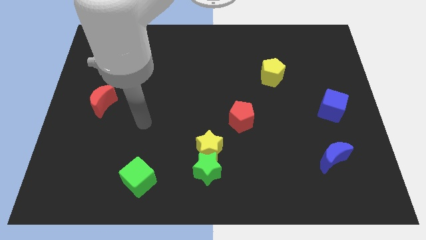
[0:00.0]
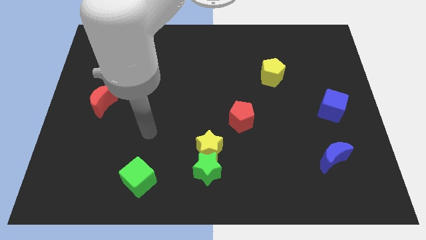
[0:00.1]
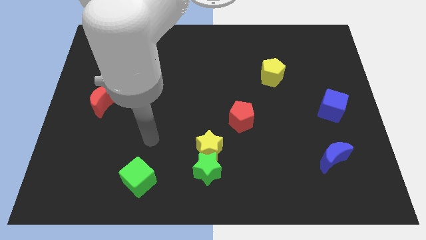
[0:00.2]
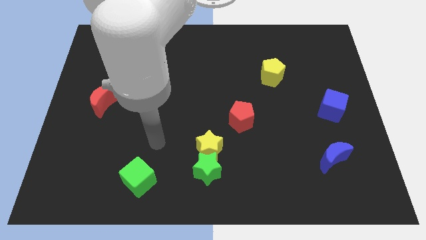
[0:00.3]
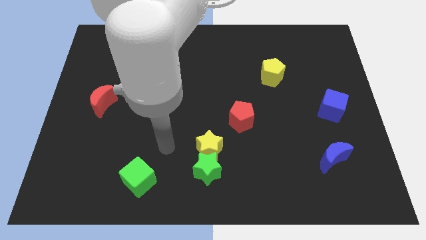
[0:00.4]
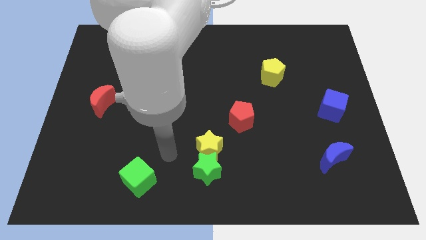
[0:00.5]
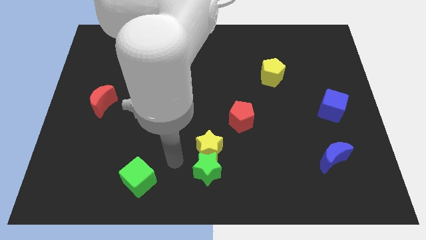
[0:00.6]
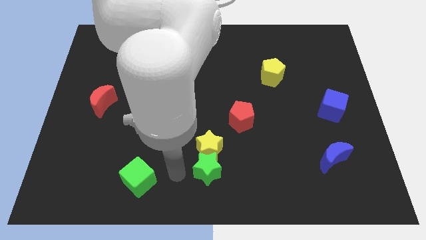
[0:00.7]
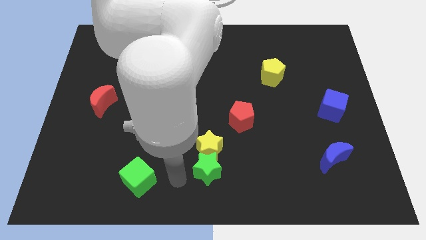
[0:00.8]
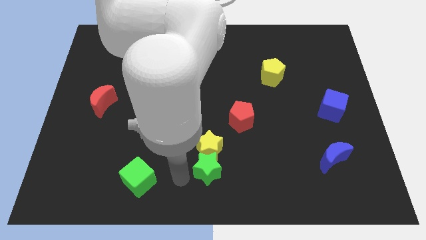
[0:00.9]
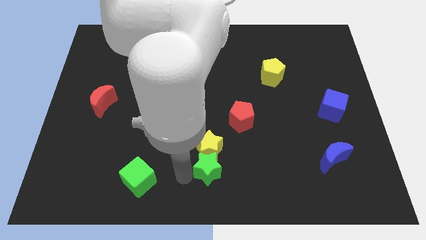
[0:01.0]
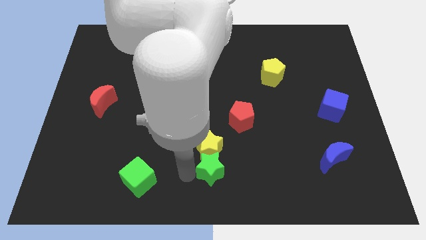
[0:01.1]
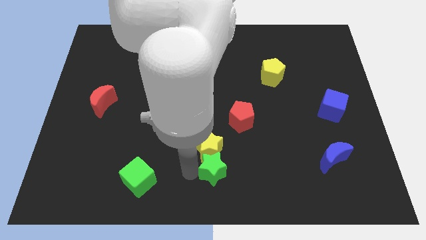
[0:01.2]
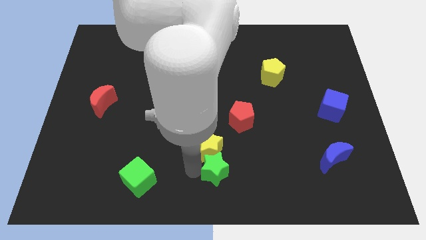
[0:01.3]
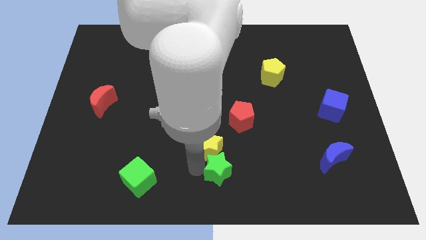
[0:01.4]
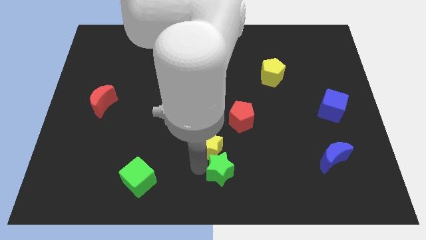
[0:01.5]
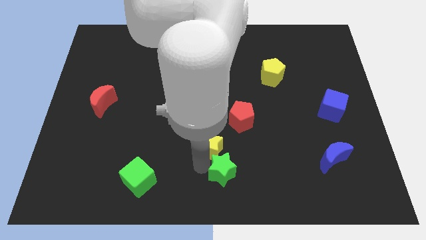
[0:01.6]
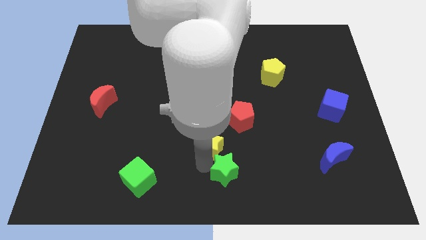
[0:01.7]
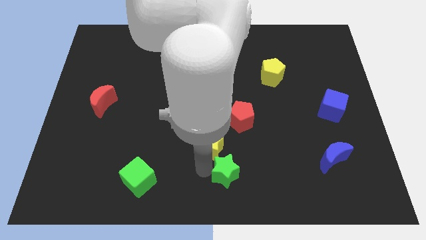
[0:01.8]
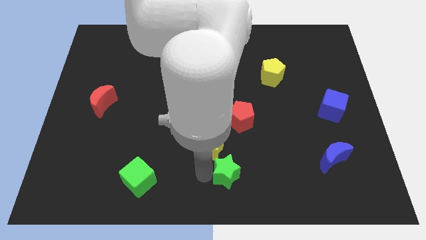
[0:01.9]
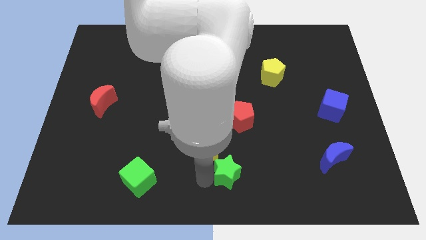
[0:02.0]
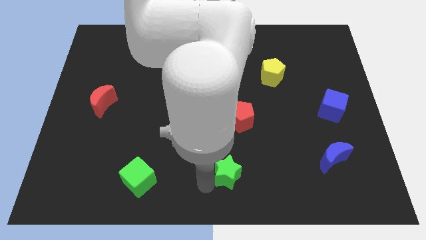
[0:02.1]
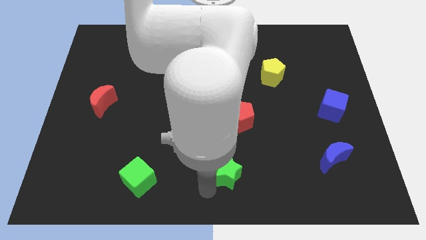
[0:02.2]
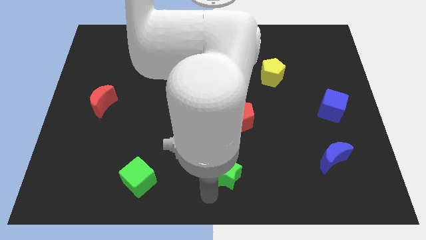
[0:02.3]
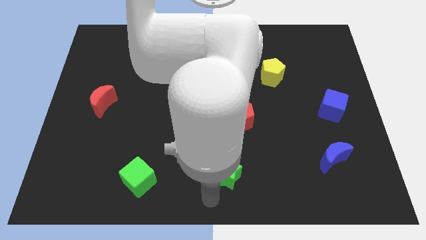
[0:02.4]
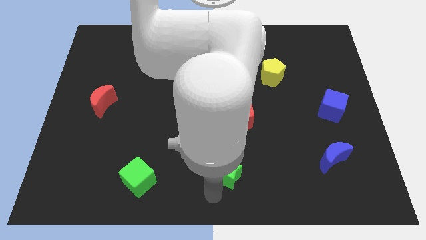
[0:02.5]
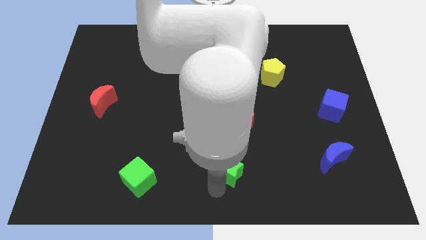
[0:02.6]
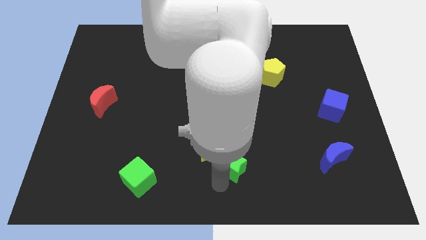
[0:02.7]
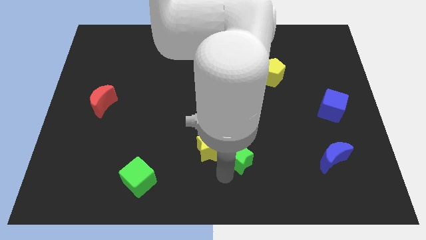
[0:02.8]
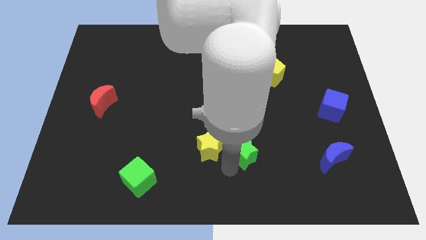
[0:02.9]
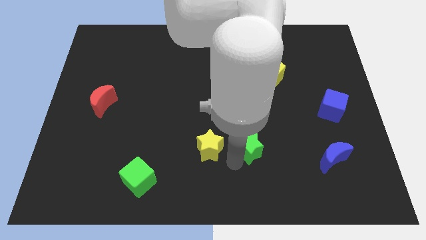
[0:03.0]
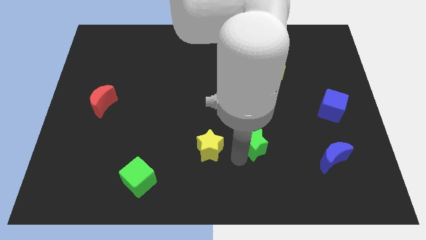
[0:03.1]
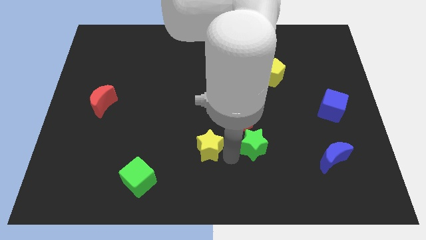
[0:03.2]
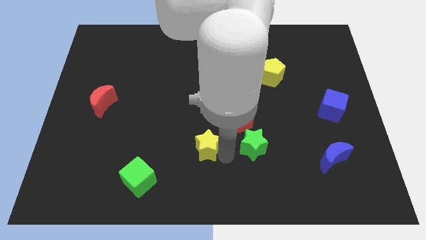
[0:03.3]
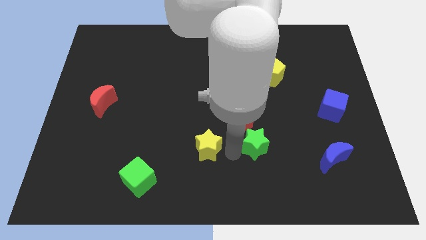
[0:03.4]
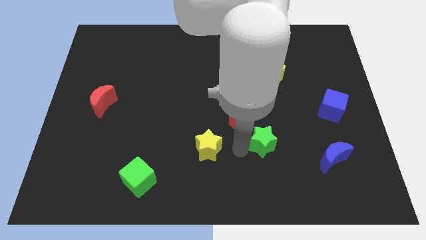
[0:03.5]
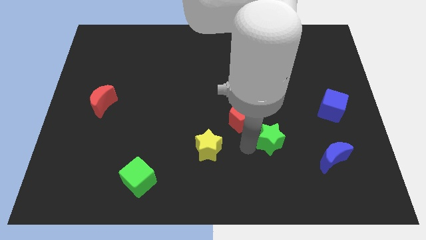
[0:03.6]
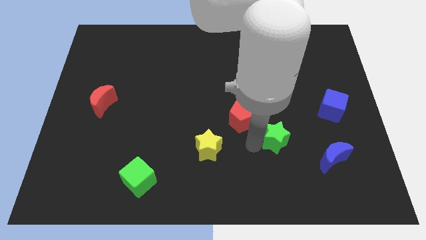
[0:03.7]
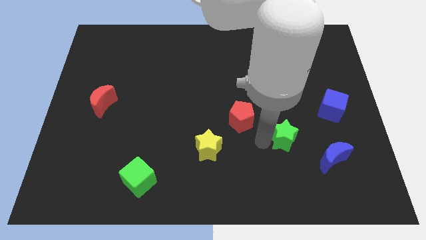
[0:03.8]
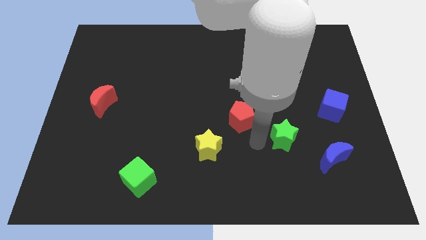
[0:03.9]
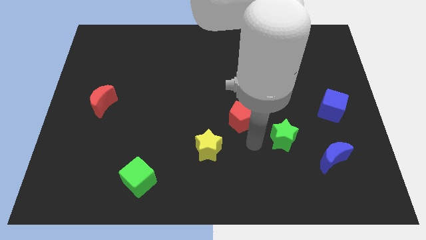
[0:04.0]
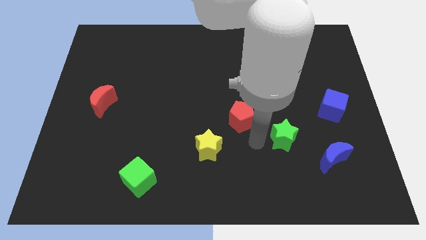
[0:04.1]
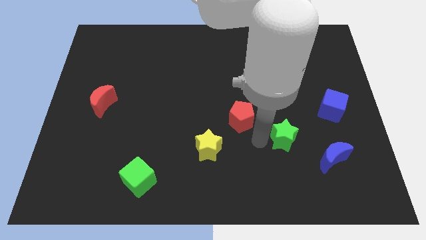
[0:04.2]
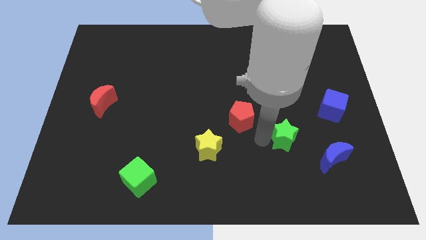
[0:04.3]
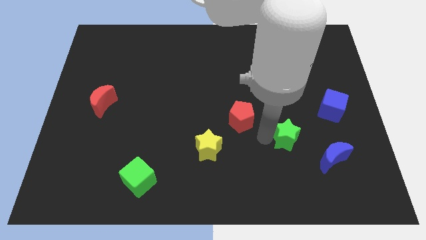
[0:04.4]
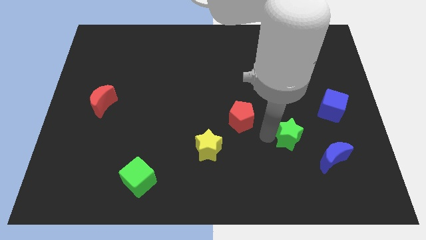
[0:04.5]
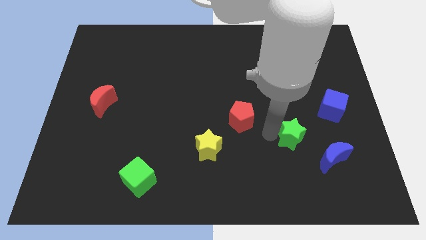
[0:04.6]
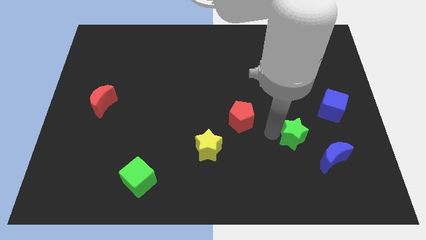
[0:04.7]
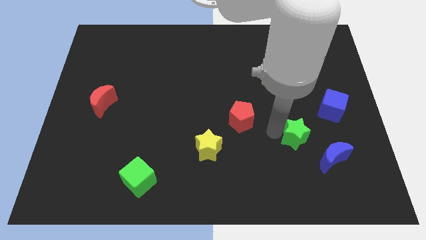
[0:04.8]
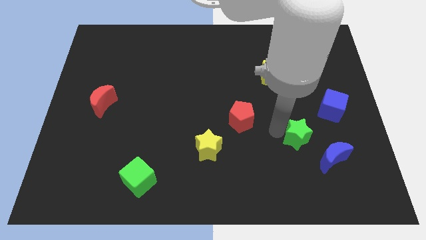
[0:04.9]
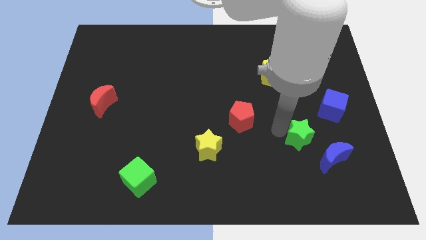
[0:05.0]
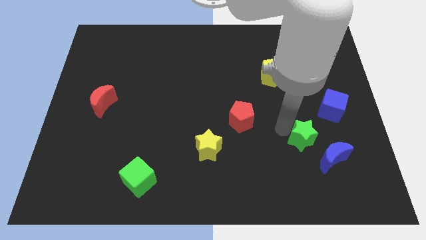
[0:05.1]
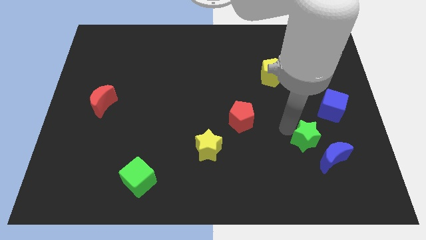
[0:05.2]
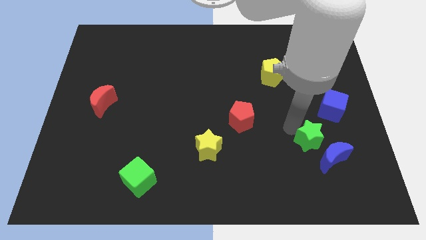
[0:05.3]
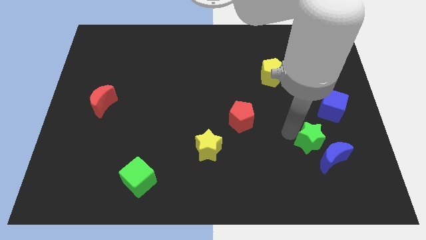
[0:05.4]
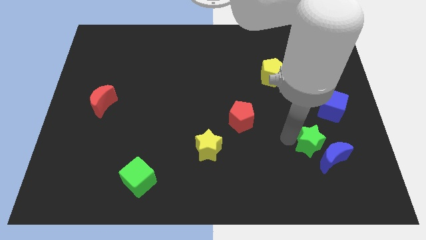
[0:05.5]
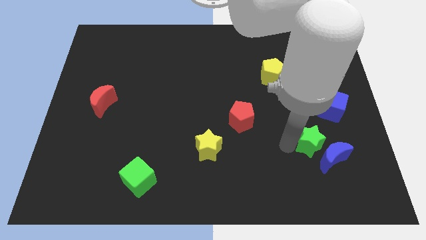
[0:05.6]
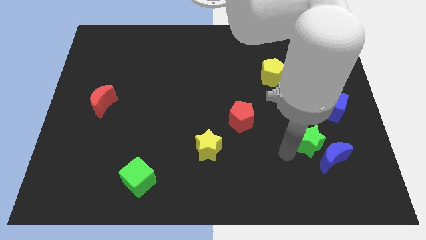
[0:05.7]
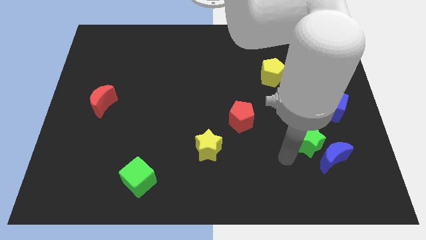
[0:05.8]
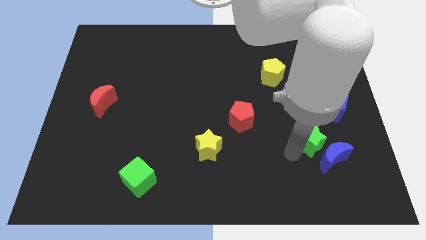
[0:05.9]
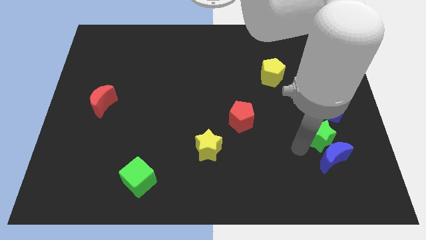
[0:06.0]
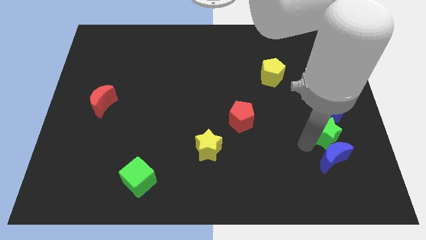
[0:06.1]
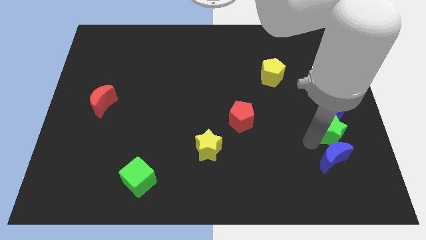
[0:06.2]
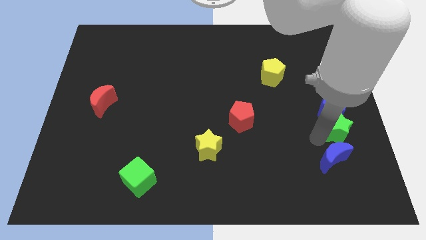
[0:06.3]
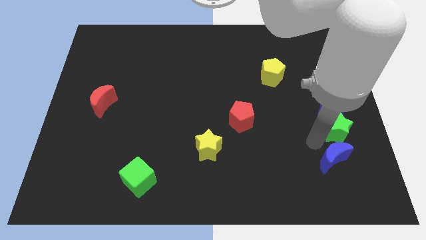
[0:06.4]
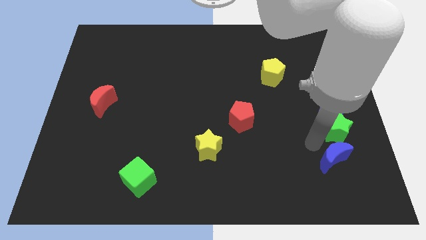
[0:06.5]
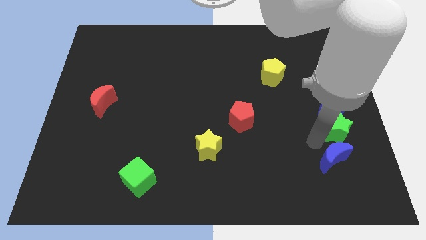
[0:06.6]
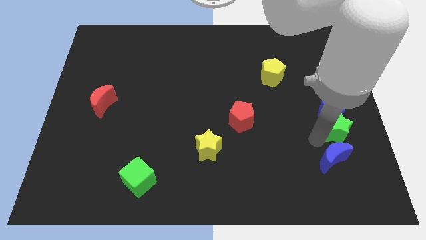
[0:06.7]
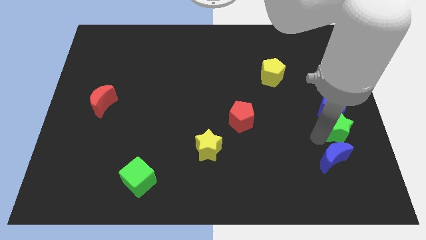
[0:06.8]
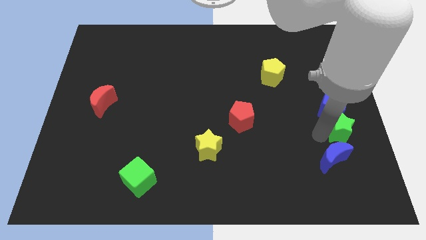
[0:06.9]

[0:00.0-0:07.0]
push the green star to the center right
